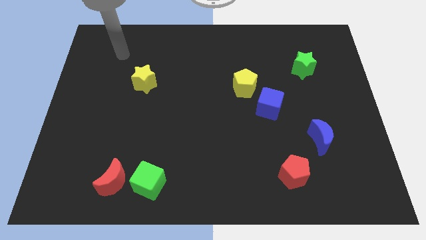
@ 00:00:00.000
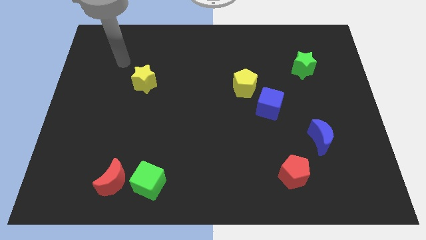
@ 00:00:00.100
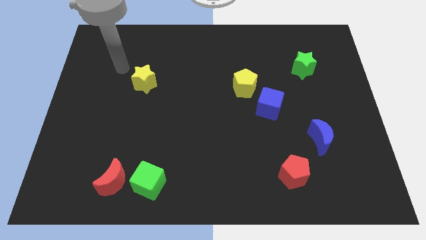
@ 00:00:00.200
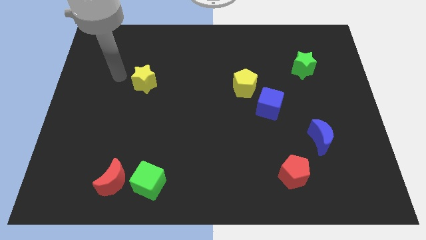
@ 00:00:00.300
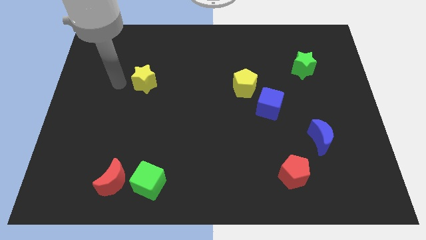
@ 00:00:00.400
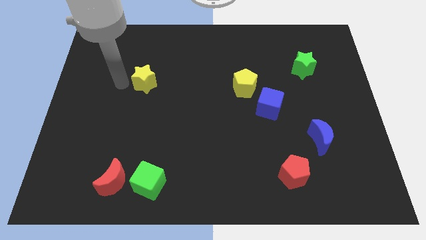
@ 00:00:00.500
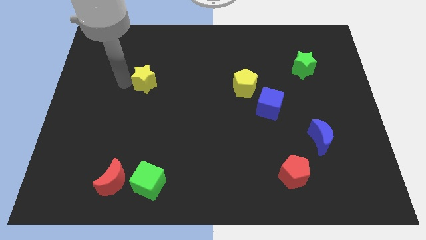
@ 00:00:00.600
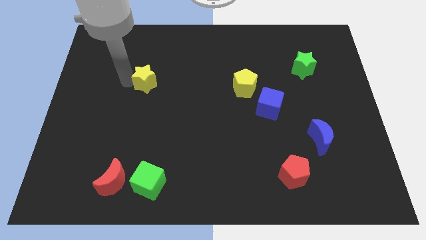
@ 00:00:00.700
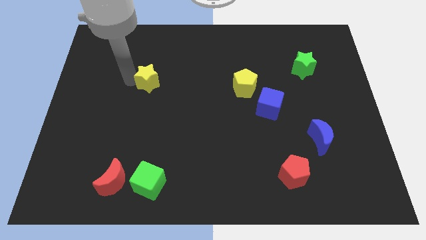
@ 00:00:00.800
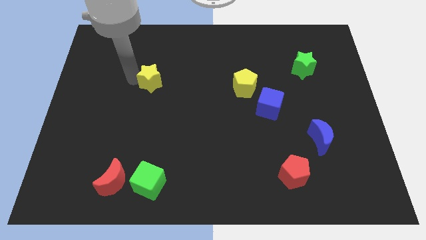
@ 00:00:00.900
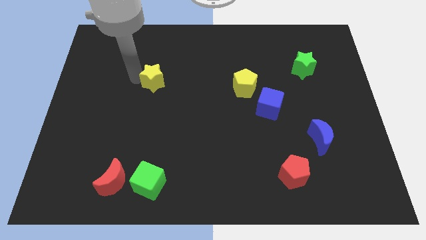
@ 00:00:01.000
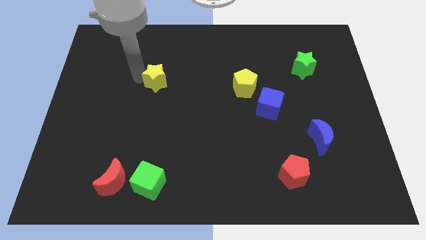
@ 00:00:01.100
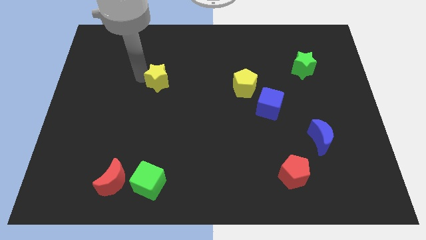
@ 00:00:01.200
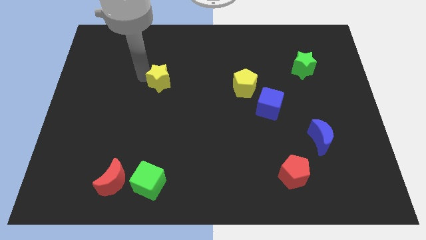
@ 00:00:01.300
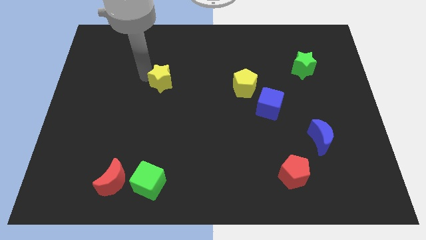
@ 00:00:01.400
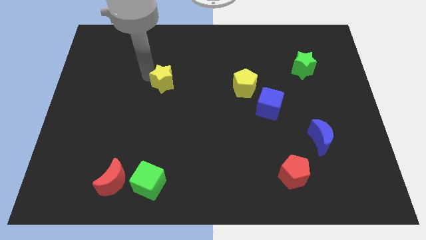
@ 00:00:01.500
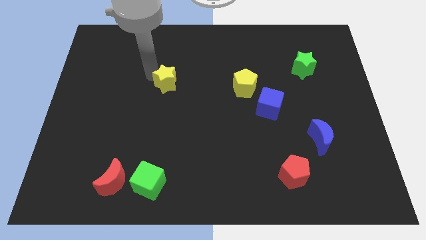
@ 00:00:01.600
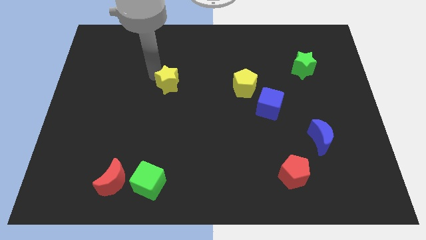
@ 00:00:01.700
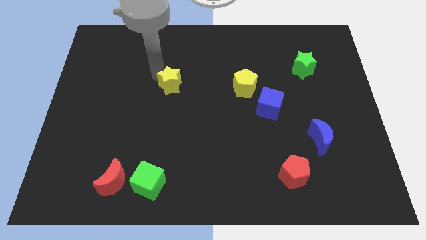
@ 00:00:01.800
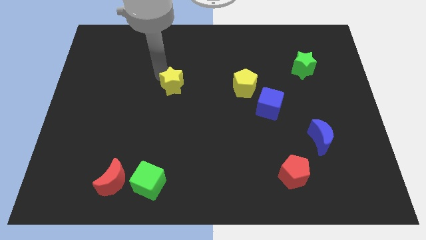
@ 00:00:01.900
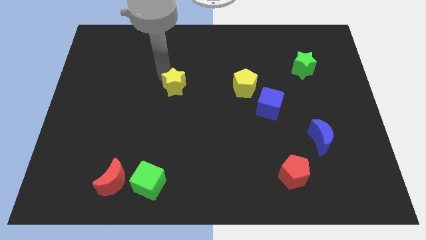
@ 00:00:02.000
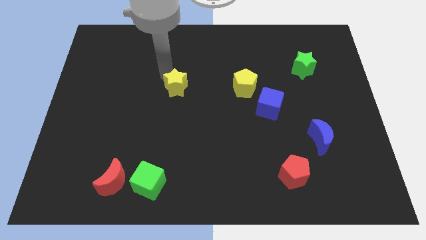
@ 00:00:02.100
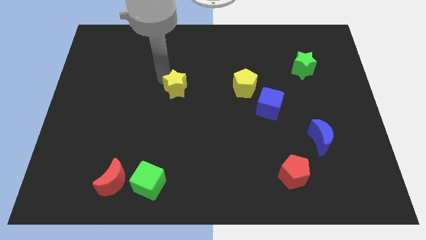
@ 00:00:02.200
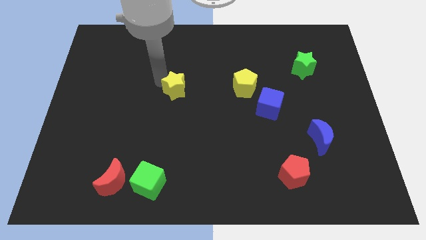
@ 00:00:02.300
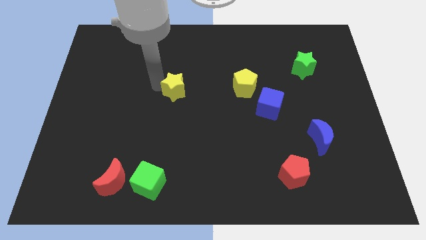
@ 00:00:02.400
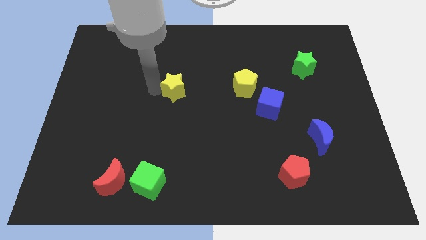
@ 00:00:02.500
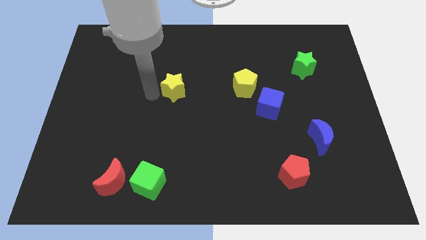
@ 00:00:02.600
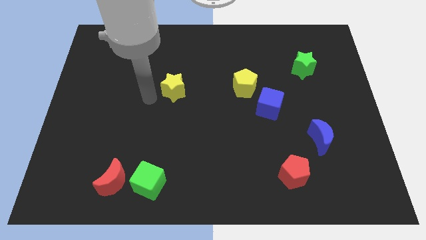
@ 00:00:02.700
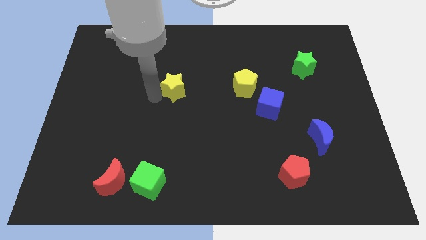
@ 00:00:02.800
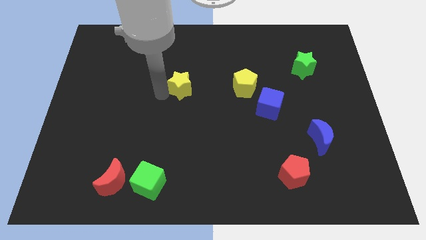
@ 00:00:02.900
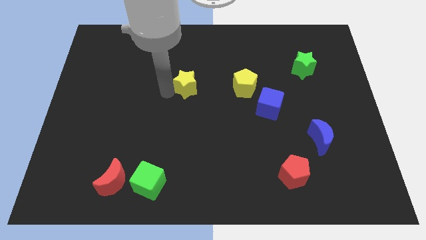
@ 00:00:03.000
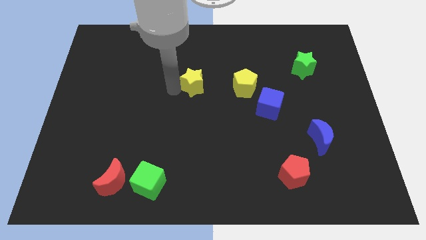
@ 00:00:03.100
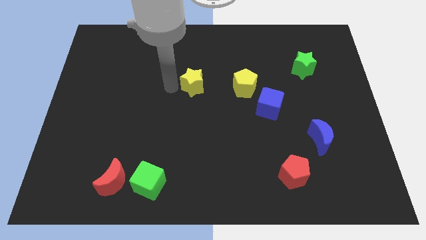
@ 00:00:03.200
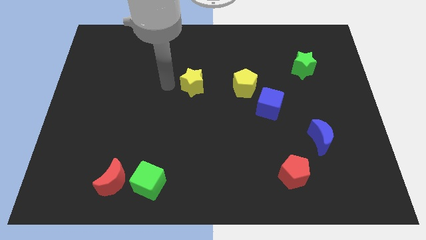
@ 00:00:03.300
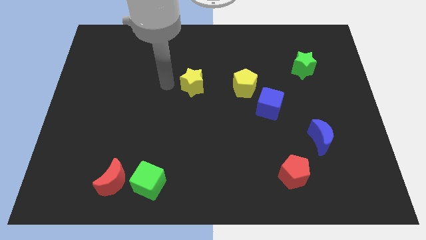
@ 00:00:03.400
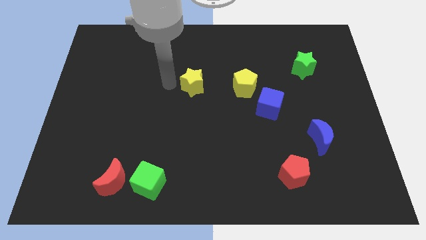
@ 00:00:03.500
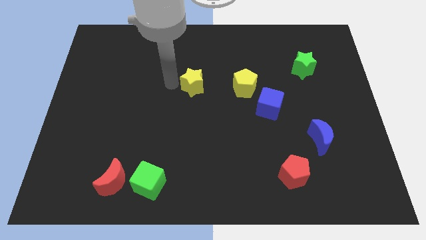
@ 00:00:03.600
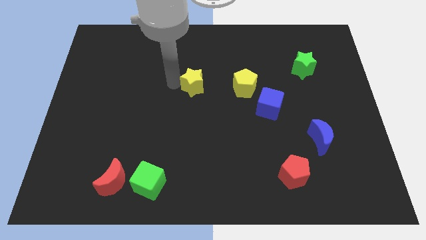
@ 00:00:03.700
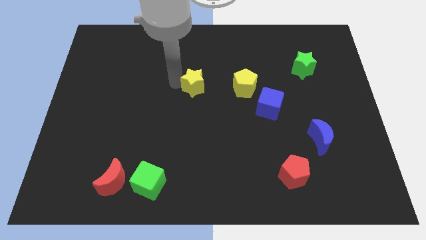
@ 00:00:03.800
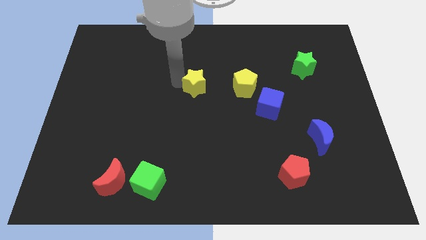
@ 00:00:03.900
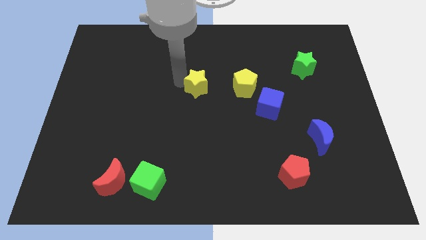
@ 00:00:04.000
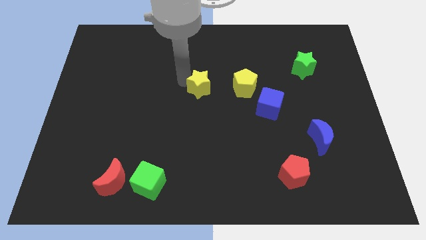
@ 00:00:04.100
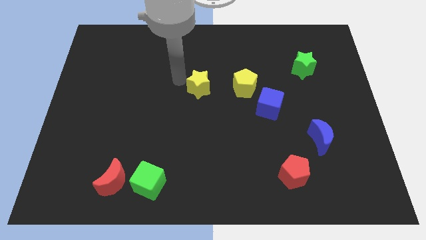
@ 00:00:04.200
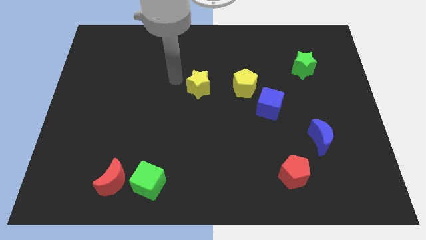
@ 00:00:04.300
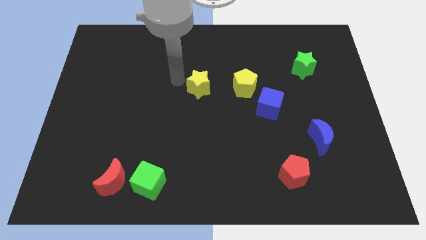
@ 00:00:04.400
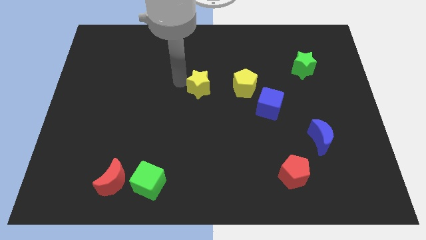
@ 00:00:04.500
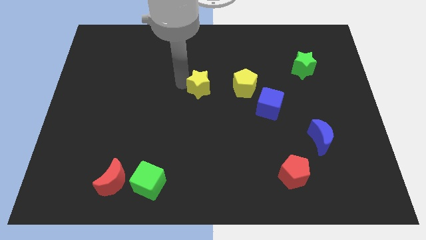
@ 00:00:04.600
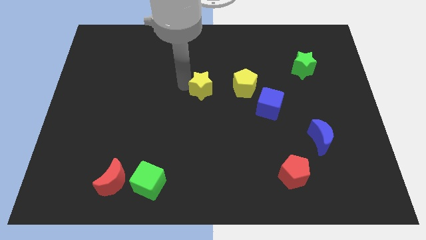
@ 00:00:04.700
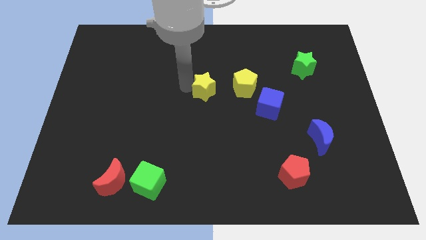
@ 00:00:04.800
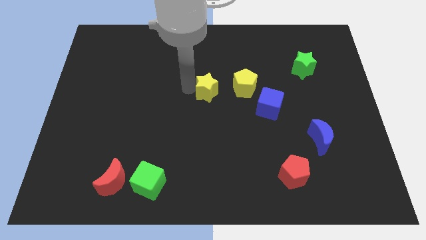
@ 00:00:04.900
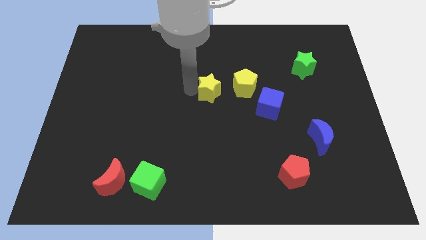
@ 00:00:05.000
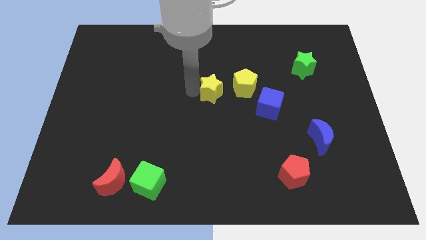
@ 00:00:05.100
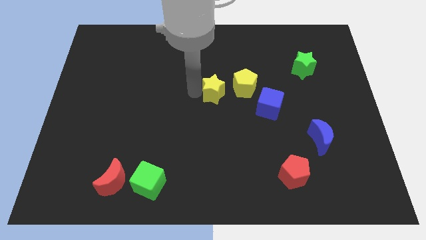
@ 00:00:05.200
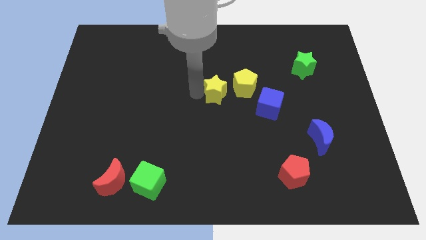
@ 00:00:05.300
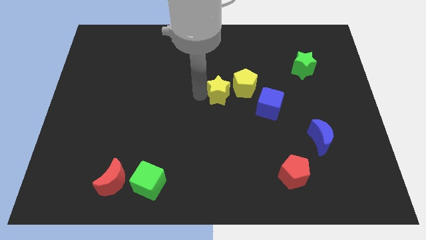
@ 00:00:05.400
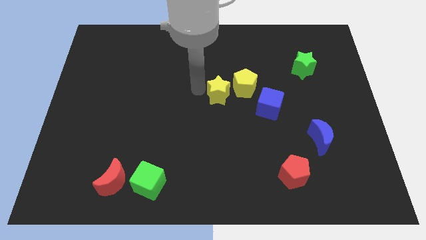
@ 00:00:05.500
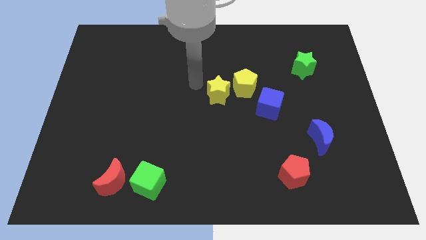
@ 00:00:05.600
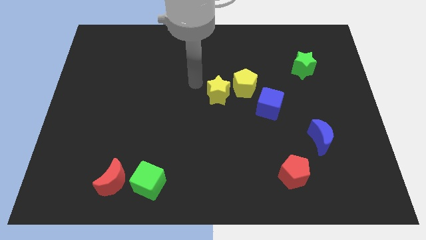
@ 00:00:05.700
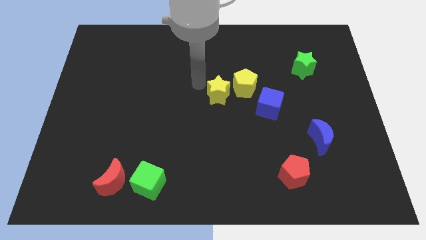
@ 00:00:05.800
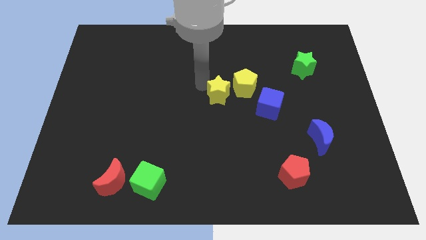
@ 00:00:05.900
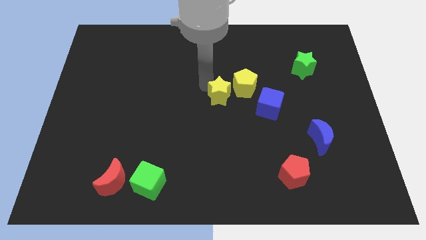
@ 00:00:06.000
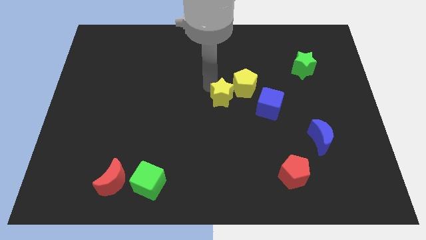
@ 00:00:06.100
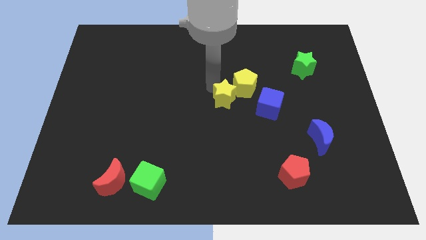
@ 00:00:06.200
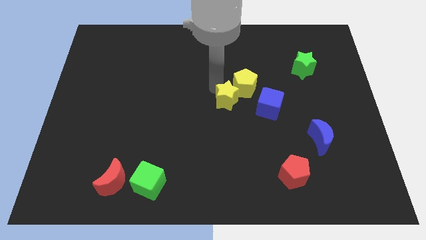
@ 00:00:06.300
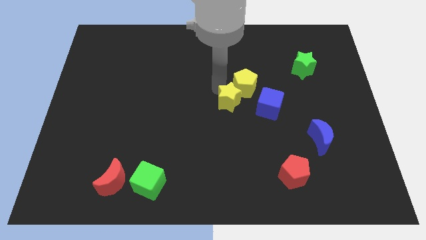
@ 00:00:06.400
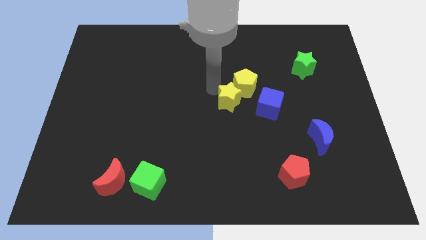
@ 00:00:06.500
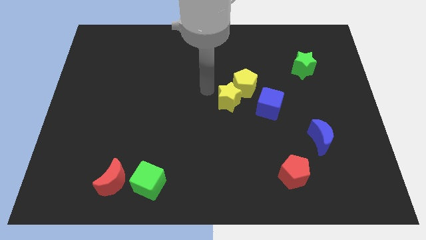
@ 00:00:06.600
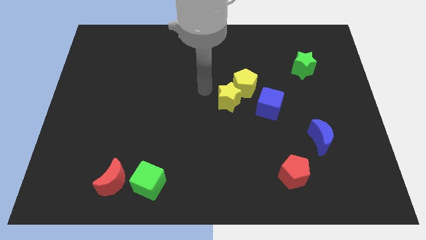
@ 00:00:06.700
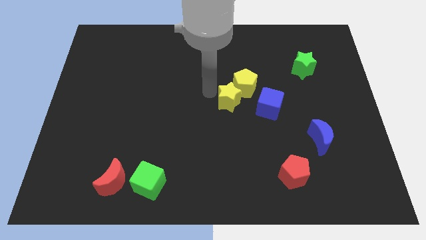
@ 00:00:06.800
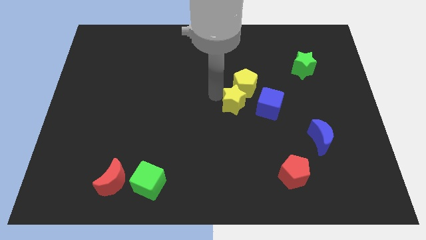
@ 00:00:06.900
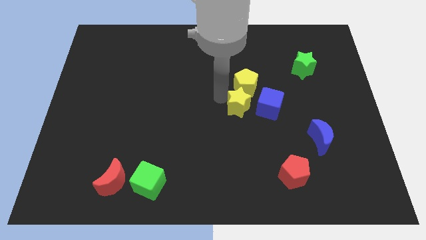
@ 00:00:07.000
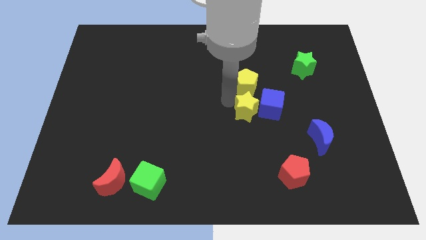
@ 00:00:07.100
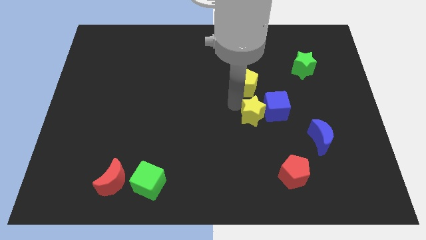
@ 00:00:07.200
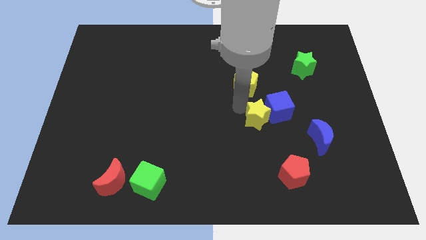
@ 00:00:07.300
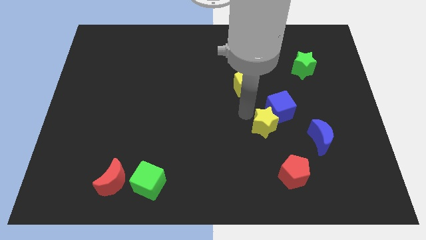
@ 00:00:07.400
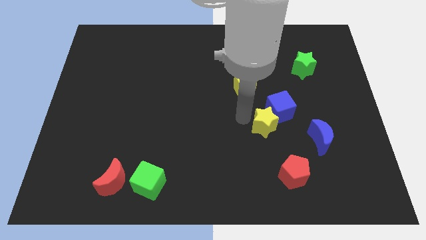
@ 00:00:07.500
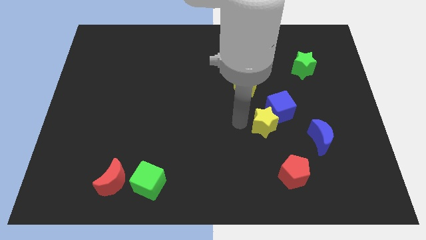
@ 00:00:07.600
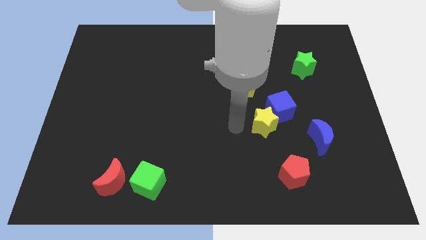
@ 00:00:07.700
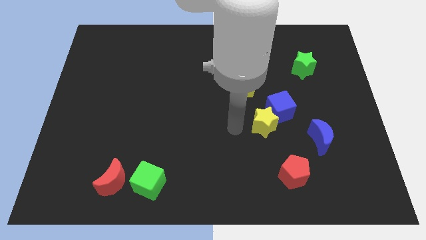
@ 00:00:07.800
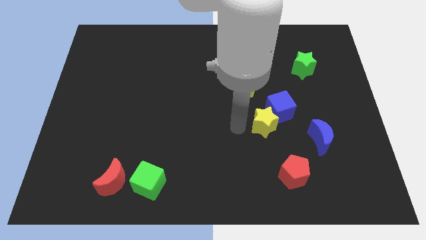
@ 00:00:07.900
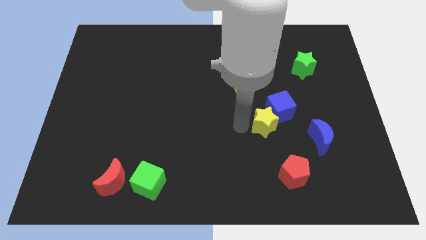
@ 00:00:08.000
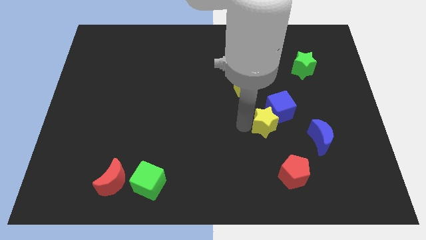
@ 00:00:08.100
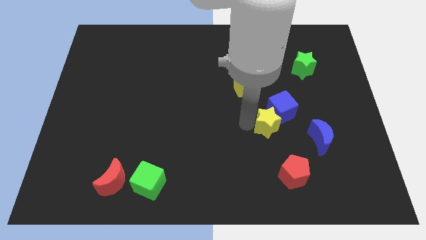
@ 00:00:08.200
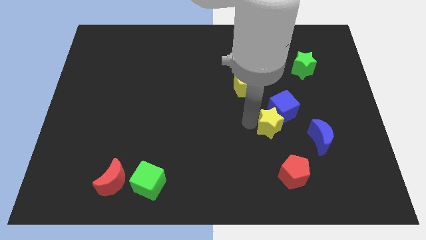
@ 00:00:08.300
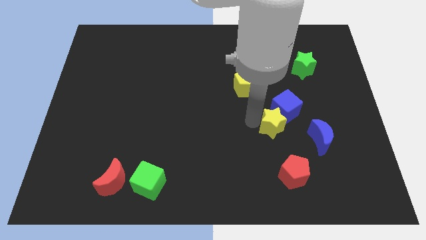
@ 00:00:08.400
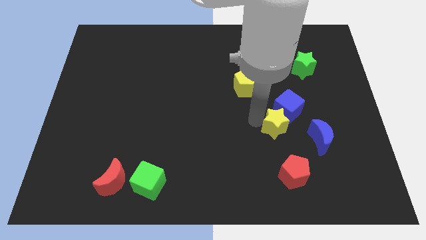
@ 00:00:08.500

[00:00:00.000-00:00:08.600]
push the yellow star diagonally up and to the left of the blue moon
